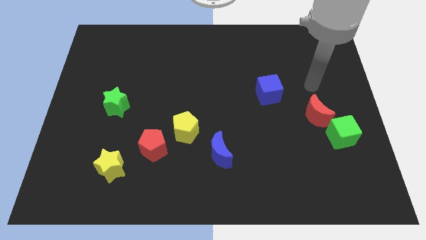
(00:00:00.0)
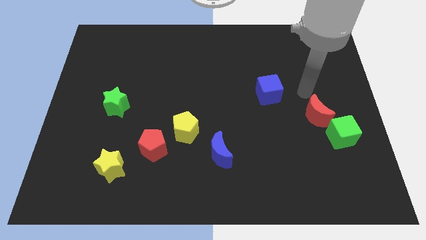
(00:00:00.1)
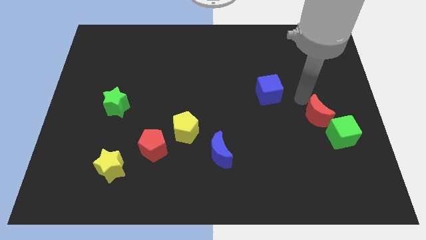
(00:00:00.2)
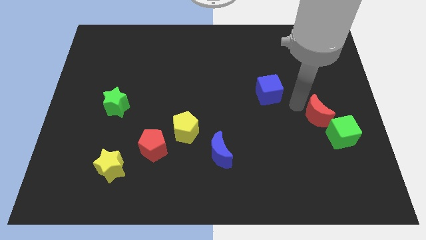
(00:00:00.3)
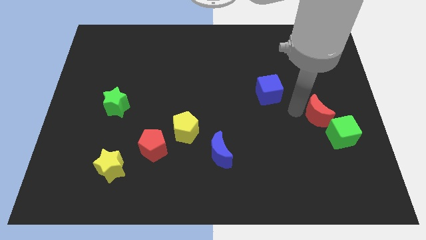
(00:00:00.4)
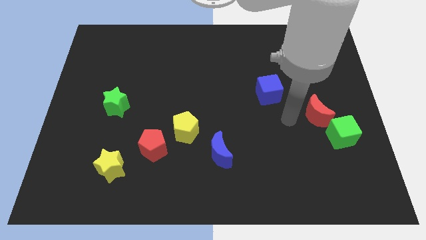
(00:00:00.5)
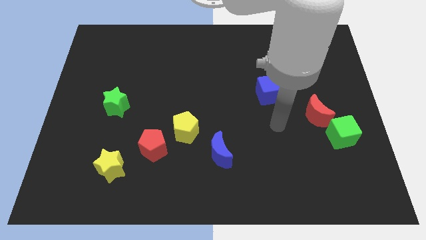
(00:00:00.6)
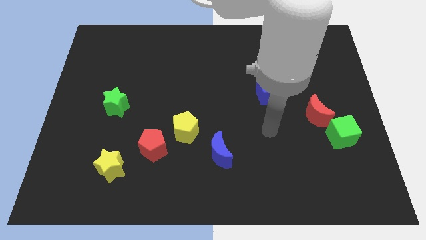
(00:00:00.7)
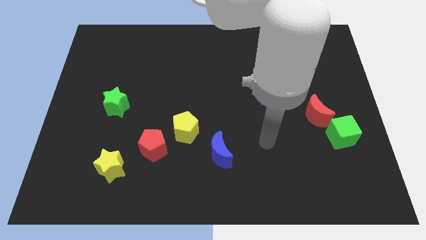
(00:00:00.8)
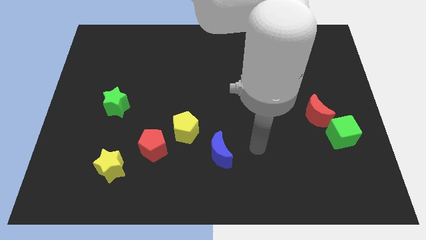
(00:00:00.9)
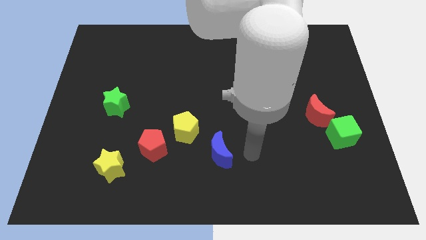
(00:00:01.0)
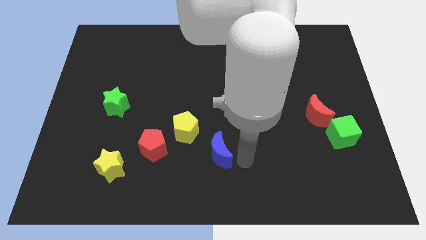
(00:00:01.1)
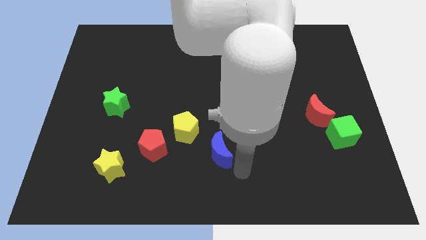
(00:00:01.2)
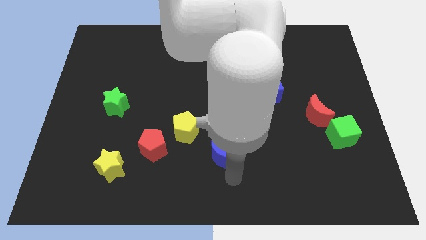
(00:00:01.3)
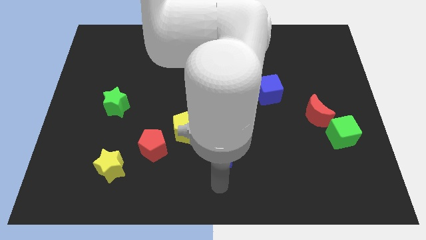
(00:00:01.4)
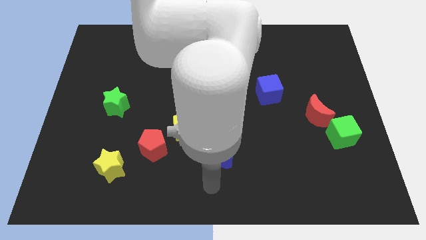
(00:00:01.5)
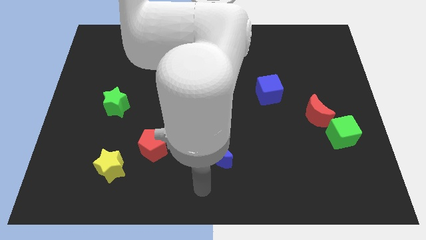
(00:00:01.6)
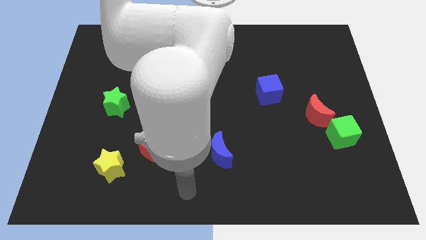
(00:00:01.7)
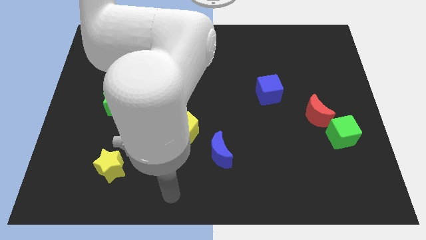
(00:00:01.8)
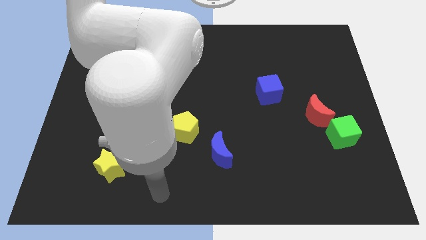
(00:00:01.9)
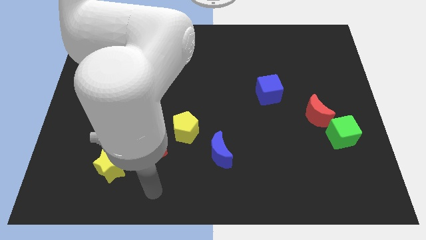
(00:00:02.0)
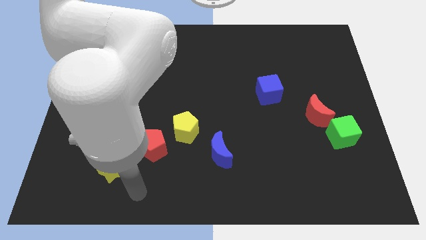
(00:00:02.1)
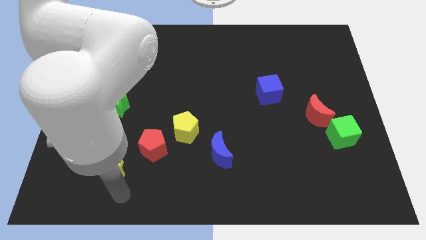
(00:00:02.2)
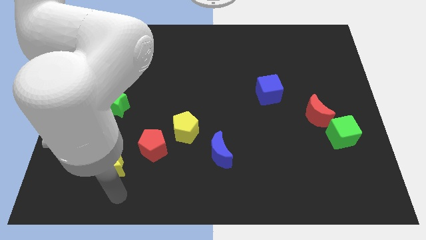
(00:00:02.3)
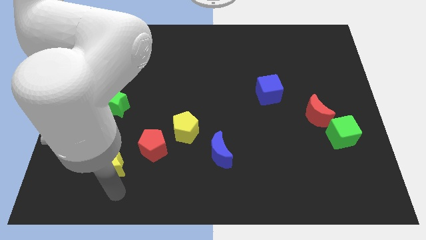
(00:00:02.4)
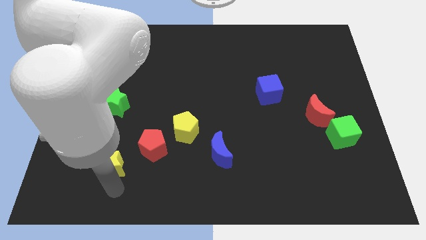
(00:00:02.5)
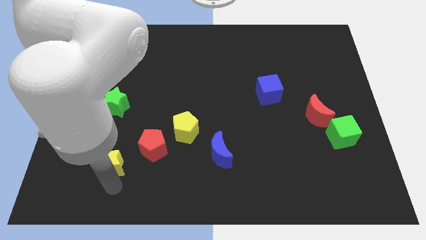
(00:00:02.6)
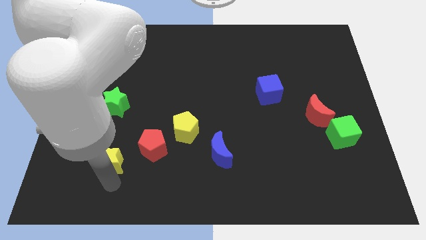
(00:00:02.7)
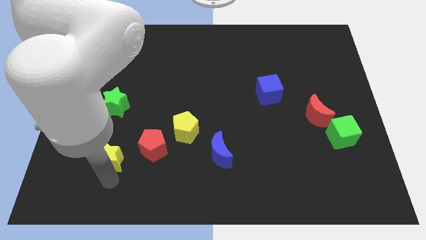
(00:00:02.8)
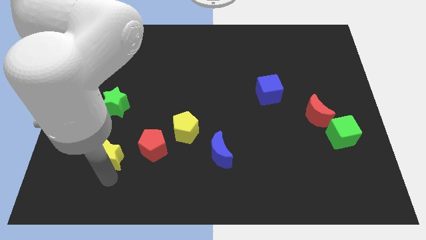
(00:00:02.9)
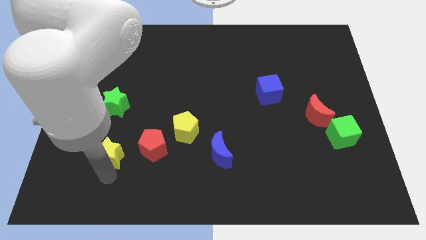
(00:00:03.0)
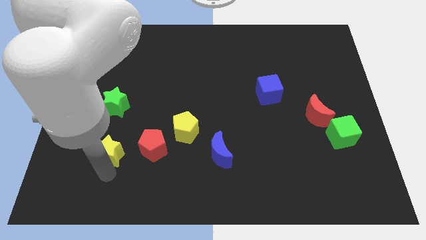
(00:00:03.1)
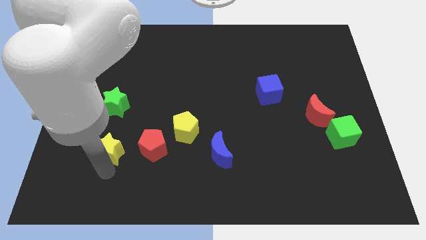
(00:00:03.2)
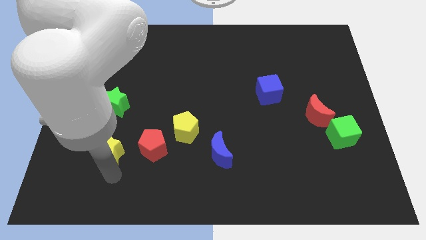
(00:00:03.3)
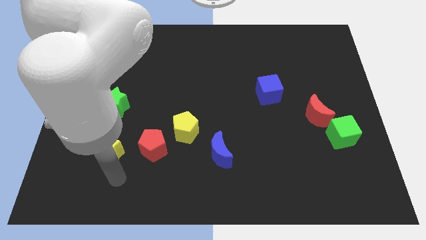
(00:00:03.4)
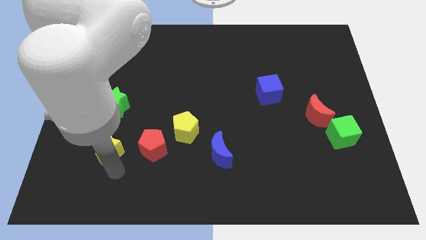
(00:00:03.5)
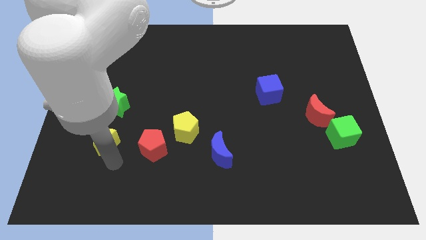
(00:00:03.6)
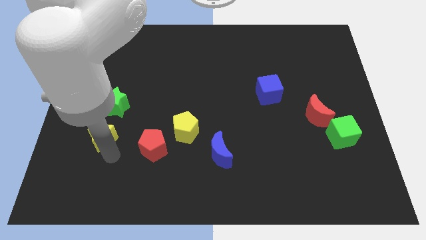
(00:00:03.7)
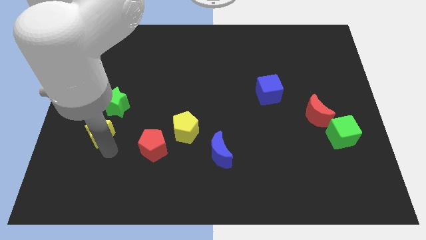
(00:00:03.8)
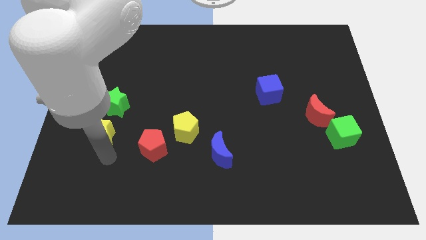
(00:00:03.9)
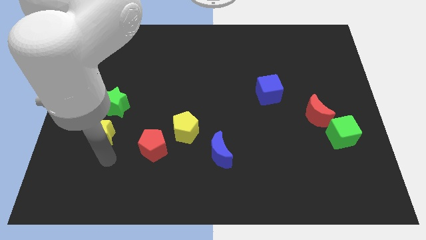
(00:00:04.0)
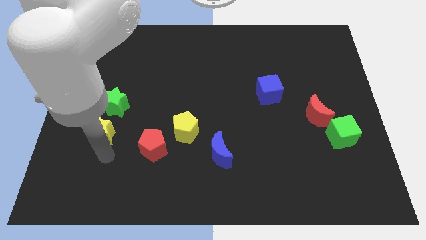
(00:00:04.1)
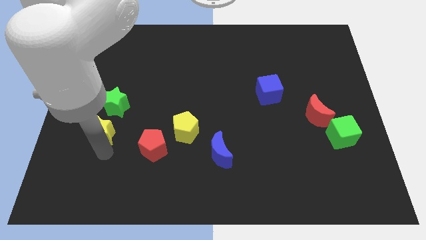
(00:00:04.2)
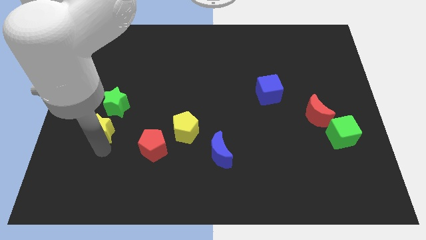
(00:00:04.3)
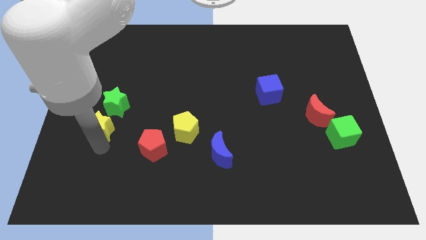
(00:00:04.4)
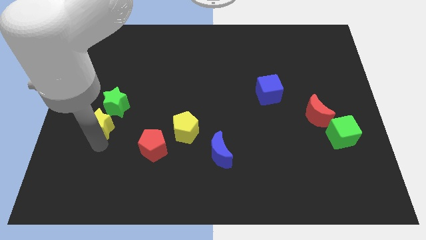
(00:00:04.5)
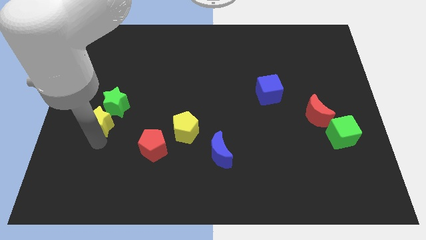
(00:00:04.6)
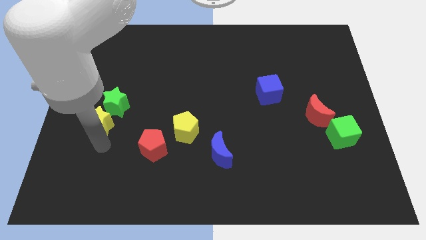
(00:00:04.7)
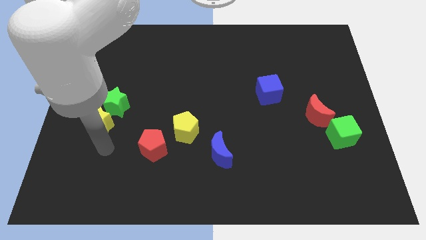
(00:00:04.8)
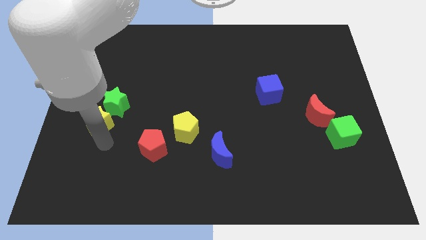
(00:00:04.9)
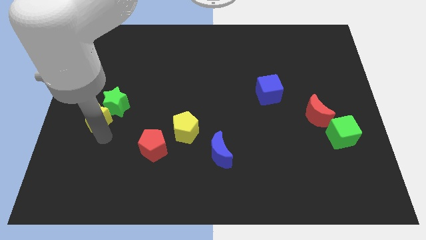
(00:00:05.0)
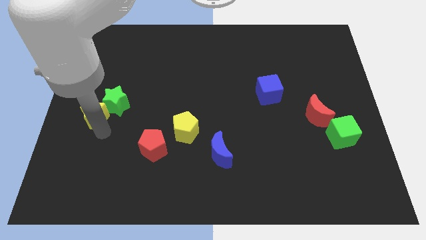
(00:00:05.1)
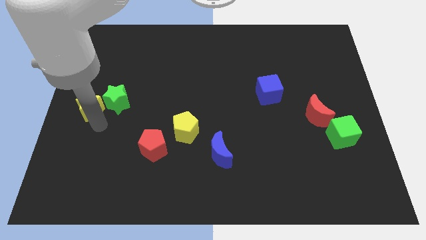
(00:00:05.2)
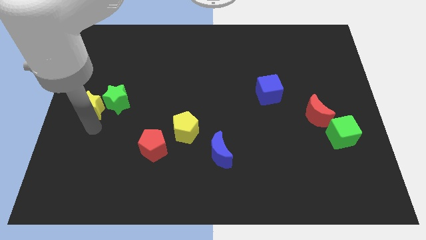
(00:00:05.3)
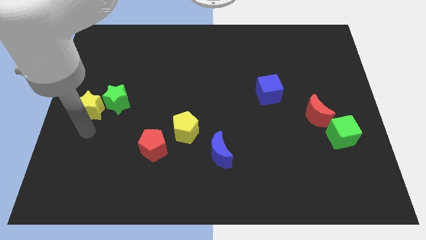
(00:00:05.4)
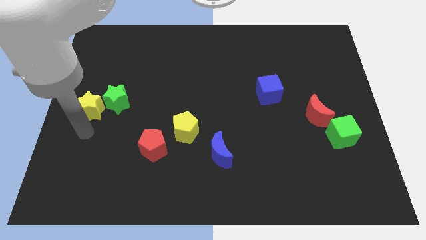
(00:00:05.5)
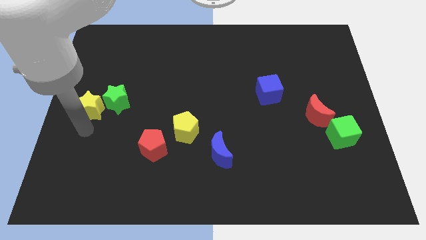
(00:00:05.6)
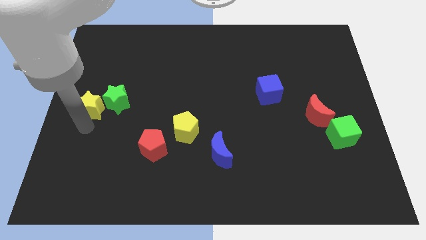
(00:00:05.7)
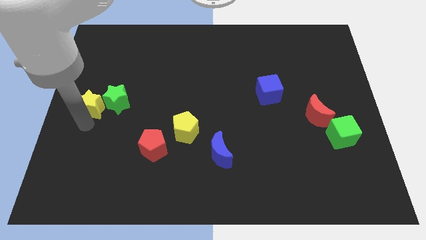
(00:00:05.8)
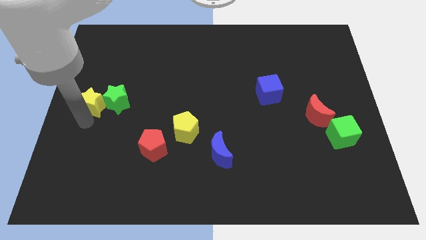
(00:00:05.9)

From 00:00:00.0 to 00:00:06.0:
put the yellow star to the top left of the green star

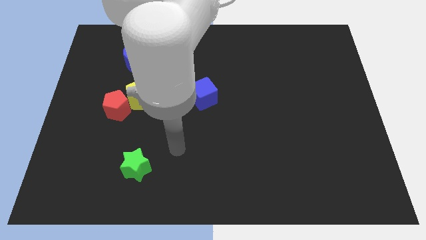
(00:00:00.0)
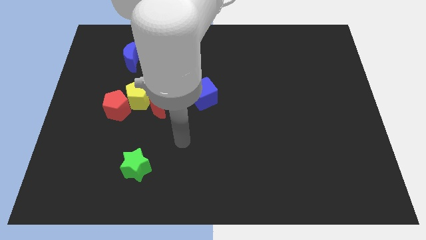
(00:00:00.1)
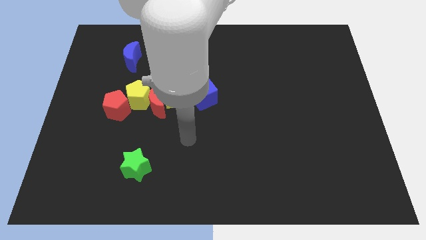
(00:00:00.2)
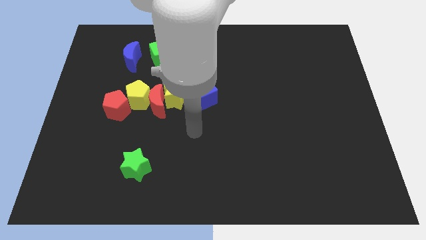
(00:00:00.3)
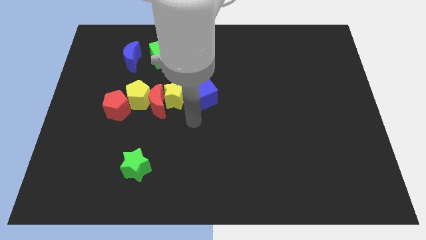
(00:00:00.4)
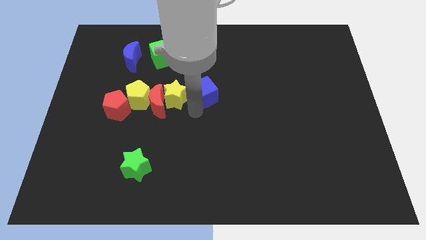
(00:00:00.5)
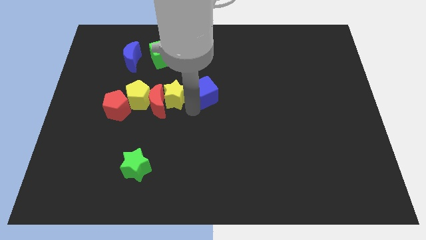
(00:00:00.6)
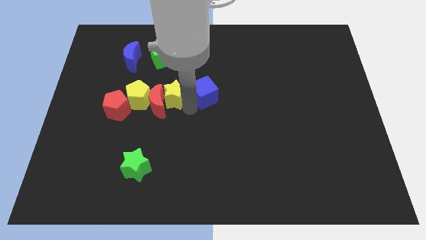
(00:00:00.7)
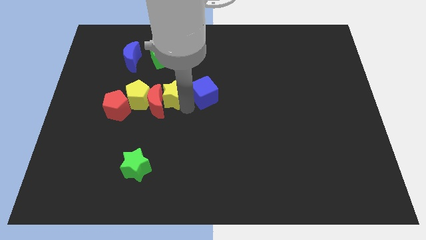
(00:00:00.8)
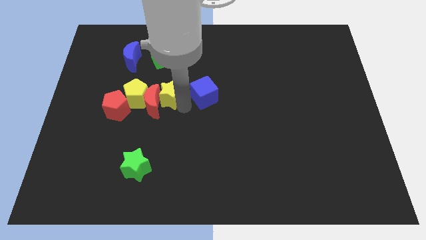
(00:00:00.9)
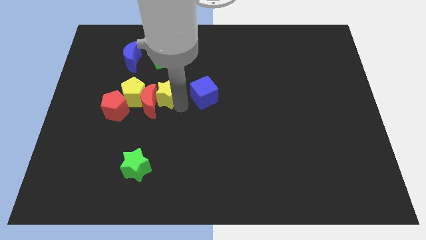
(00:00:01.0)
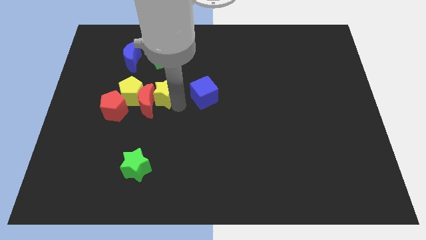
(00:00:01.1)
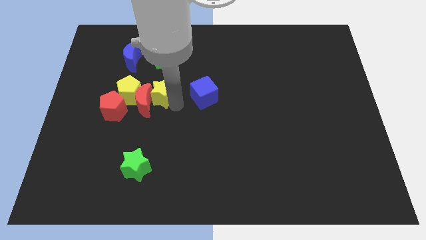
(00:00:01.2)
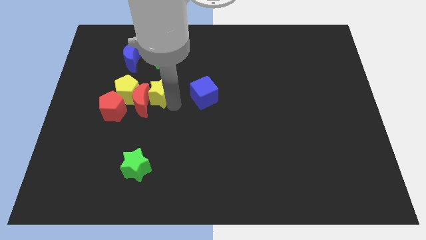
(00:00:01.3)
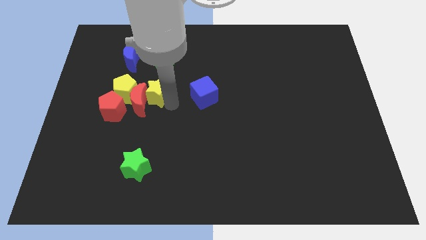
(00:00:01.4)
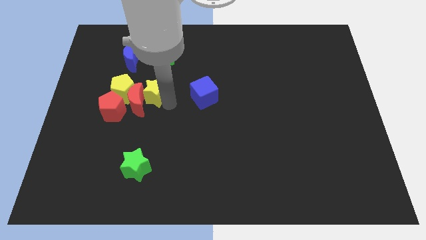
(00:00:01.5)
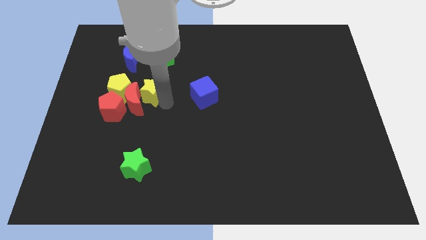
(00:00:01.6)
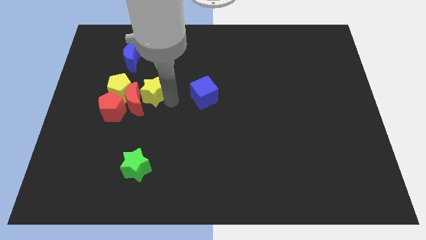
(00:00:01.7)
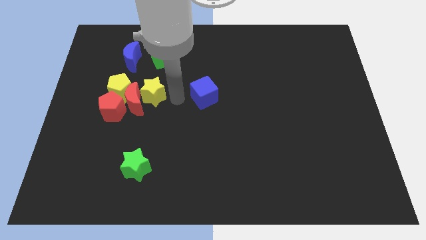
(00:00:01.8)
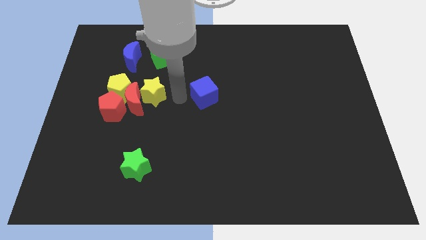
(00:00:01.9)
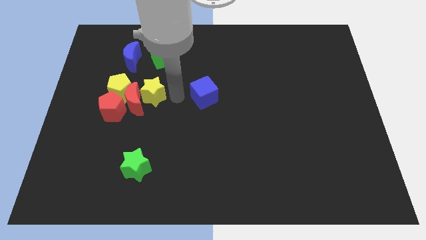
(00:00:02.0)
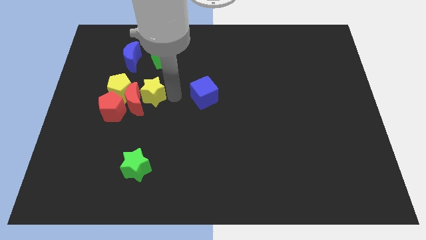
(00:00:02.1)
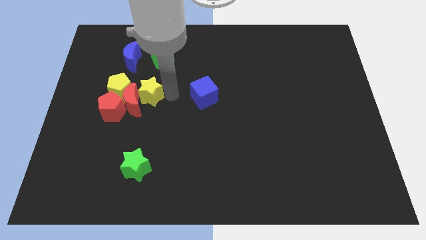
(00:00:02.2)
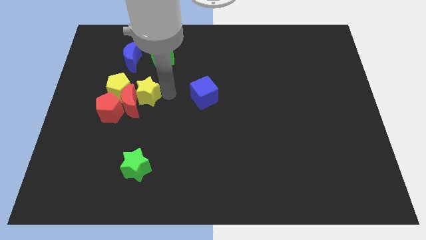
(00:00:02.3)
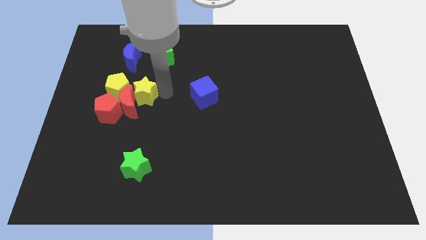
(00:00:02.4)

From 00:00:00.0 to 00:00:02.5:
slide the yellow star to the bottom side of the blue moon
